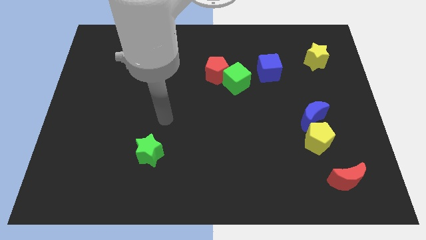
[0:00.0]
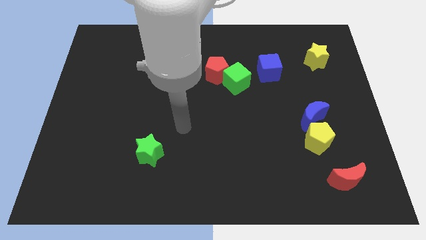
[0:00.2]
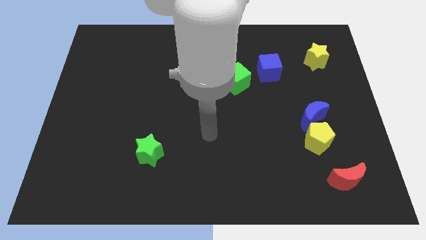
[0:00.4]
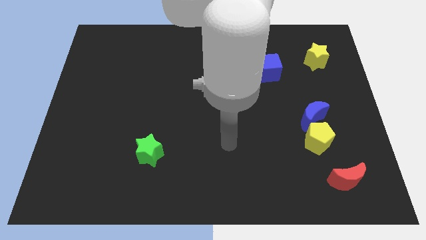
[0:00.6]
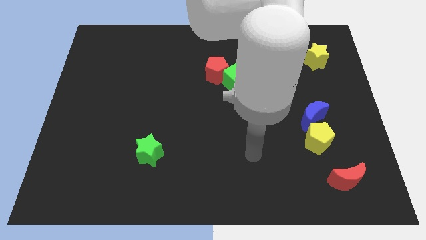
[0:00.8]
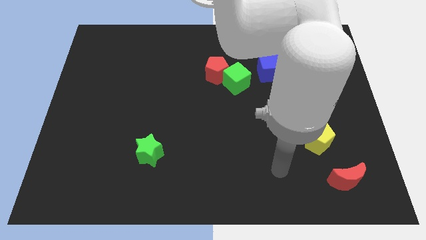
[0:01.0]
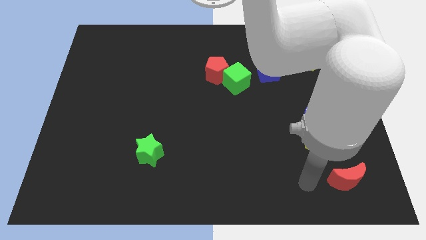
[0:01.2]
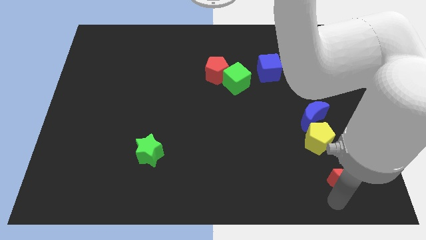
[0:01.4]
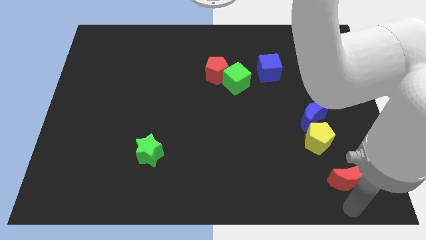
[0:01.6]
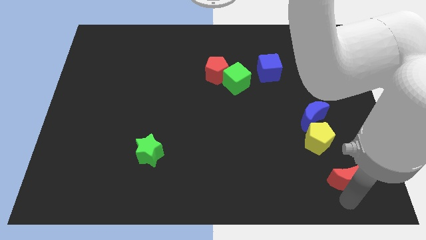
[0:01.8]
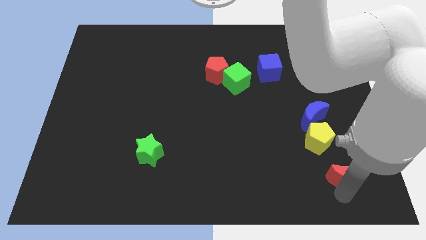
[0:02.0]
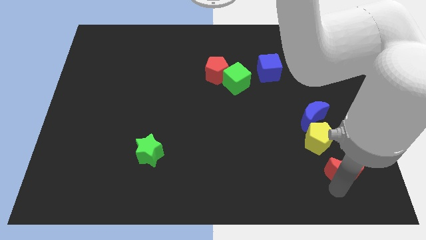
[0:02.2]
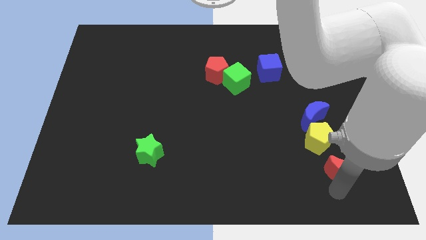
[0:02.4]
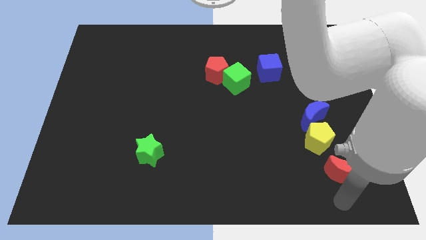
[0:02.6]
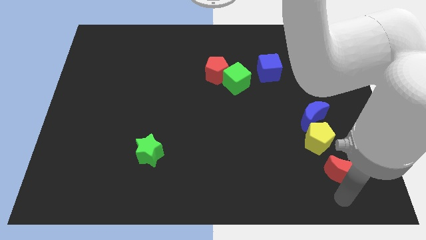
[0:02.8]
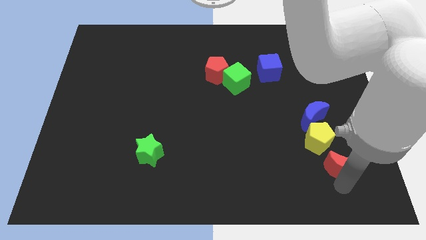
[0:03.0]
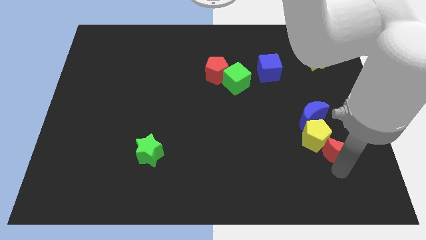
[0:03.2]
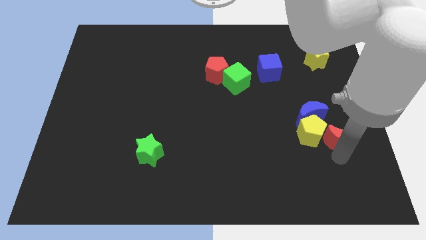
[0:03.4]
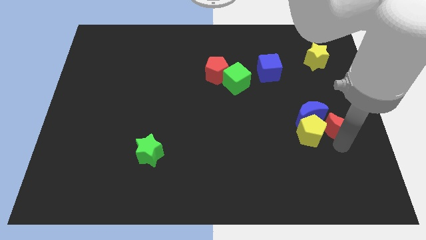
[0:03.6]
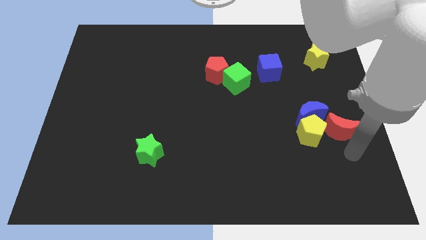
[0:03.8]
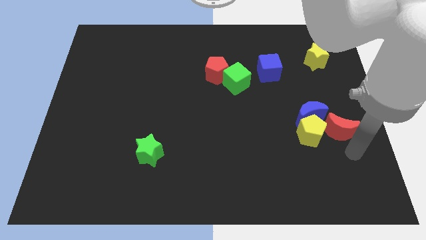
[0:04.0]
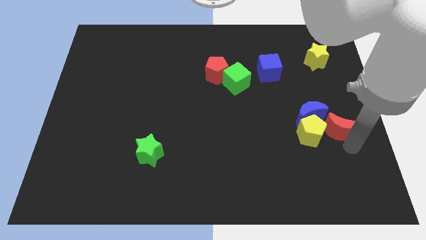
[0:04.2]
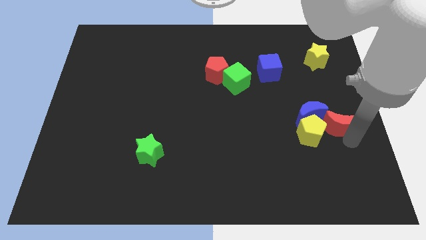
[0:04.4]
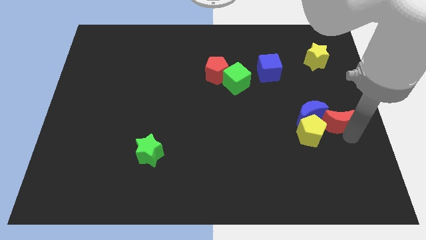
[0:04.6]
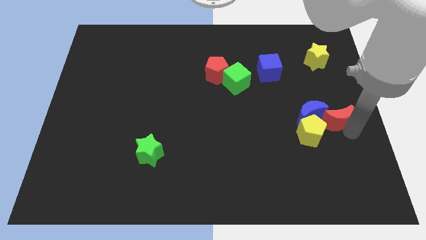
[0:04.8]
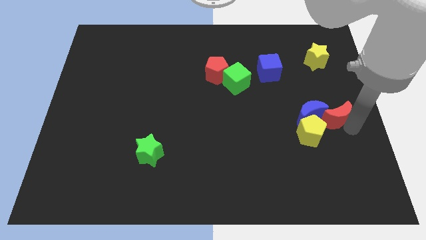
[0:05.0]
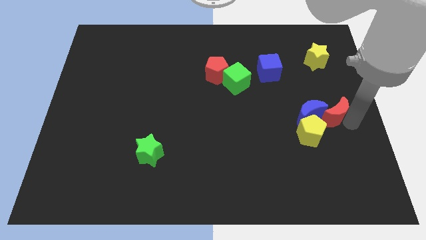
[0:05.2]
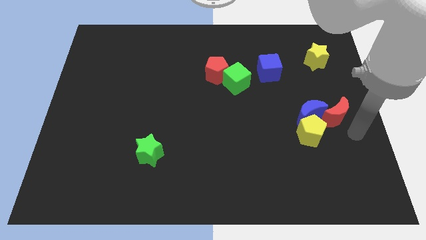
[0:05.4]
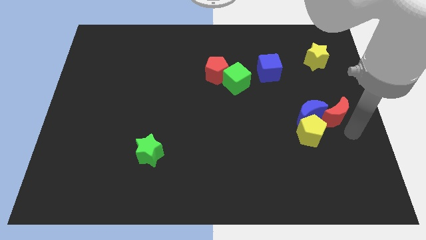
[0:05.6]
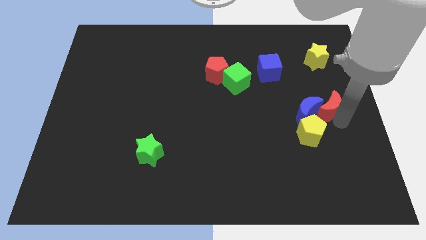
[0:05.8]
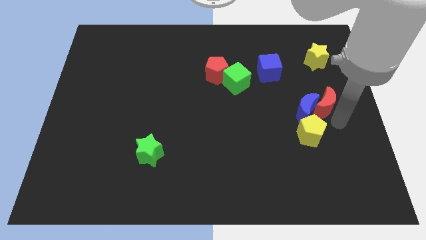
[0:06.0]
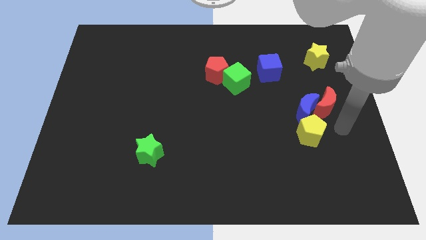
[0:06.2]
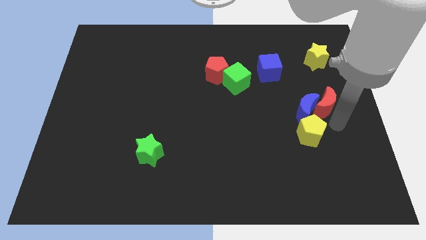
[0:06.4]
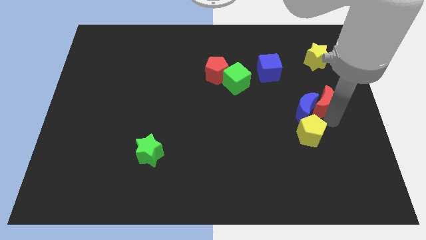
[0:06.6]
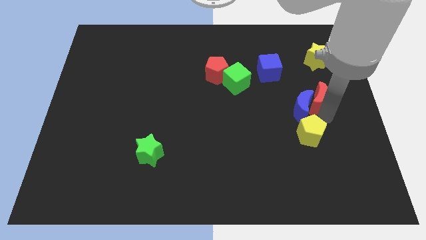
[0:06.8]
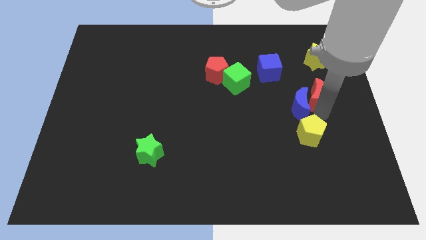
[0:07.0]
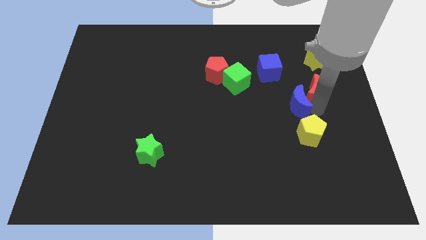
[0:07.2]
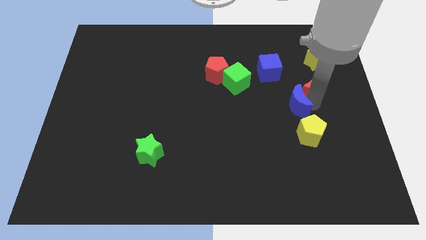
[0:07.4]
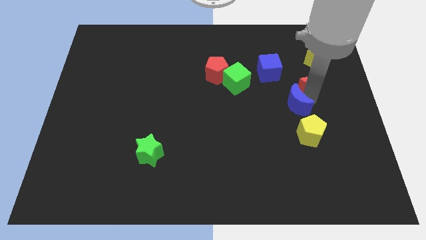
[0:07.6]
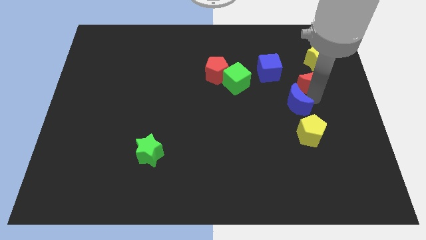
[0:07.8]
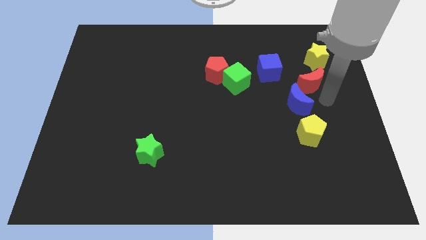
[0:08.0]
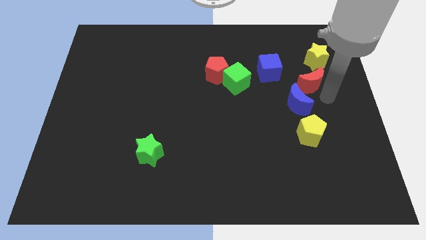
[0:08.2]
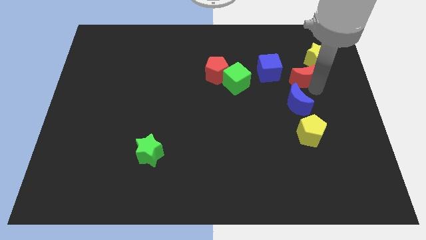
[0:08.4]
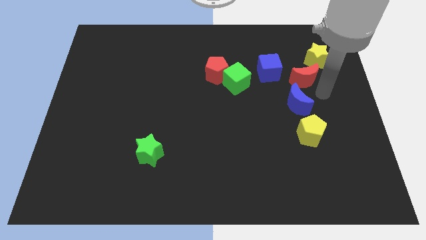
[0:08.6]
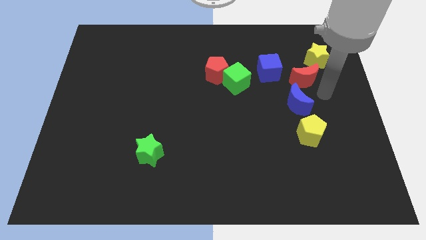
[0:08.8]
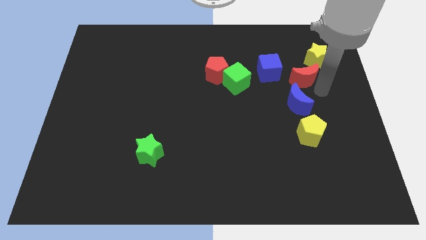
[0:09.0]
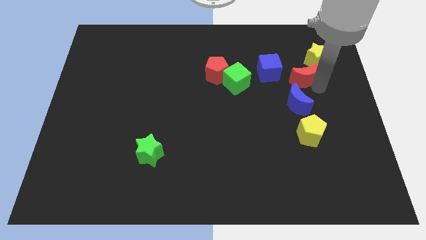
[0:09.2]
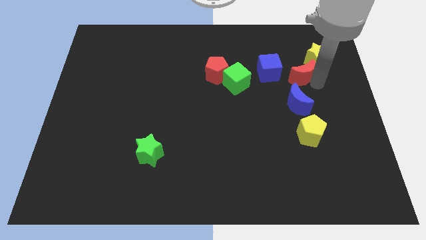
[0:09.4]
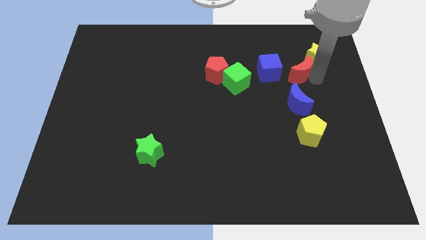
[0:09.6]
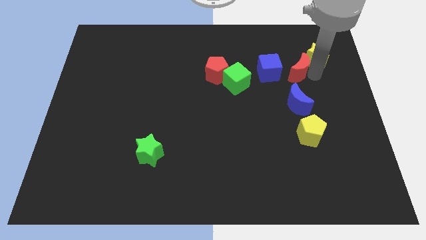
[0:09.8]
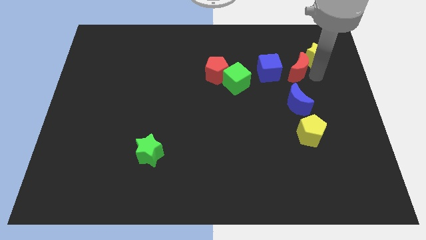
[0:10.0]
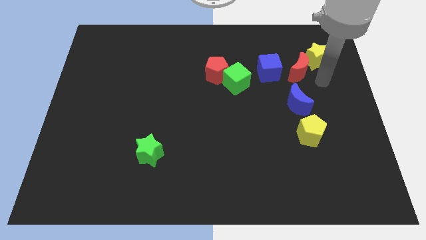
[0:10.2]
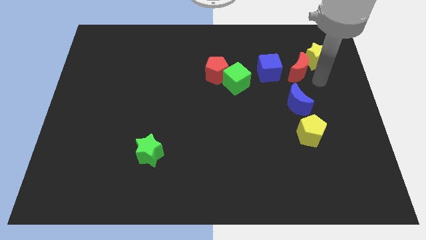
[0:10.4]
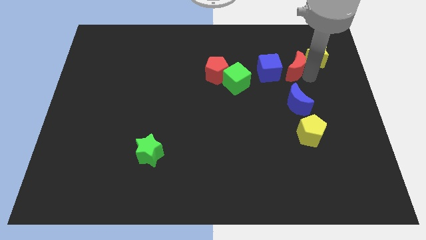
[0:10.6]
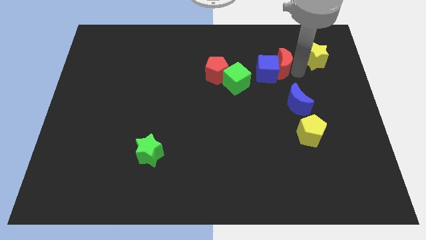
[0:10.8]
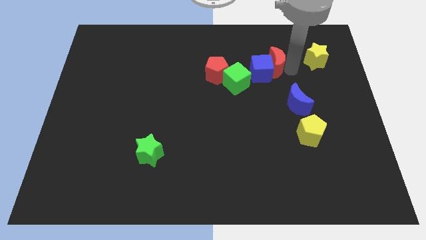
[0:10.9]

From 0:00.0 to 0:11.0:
push the red moon to the top right of the green cube

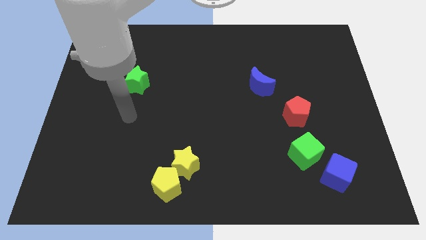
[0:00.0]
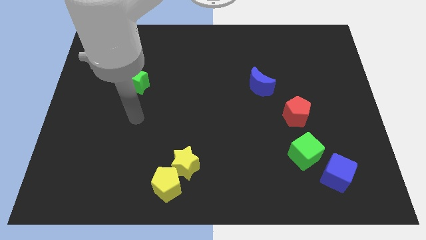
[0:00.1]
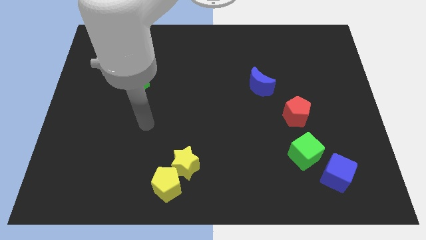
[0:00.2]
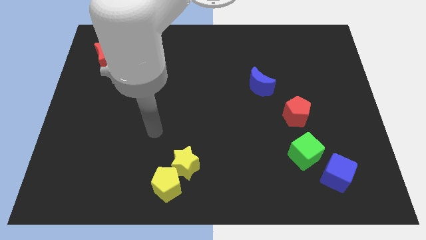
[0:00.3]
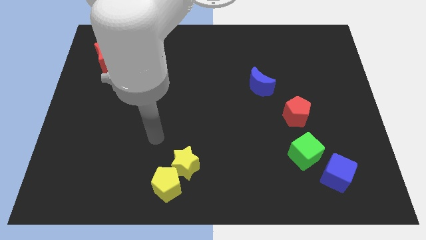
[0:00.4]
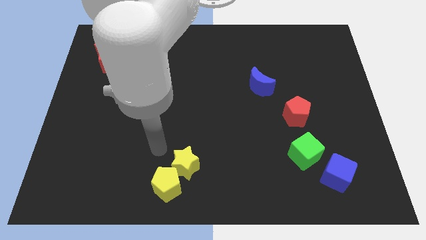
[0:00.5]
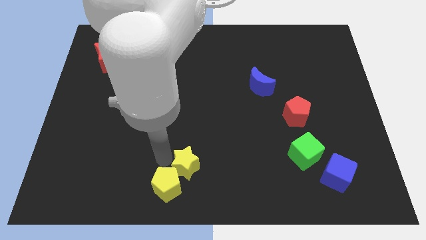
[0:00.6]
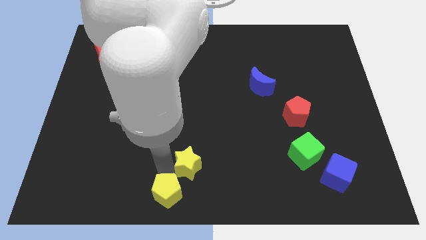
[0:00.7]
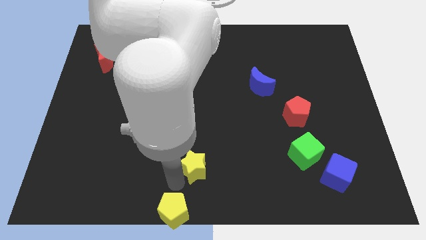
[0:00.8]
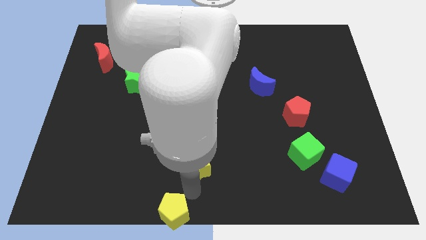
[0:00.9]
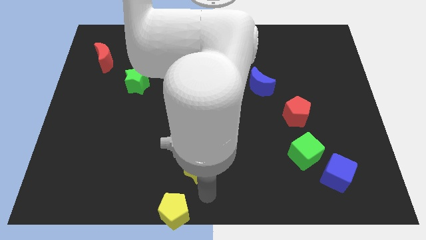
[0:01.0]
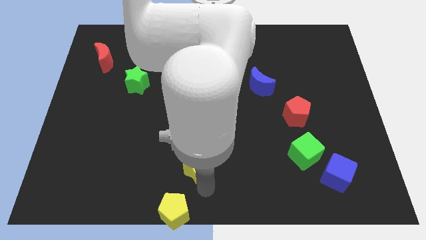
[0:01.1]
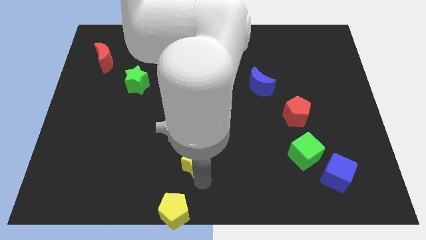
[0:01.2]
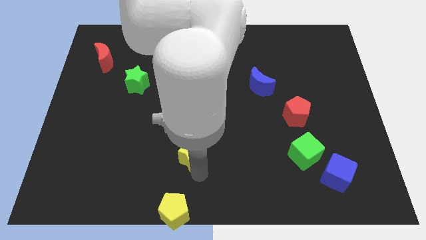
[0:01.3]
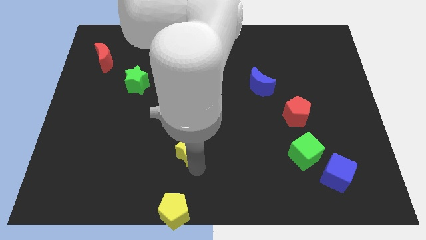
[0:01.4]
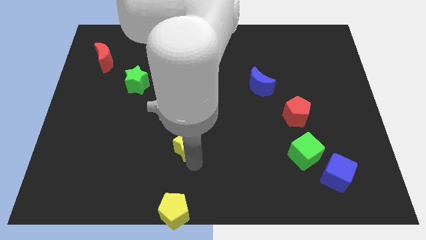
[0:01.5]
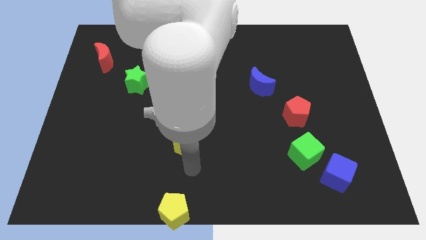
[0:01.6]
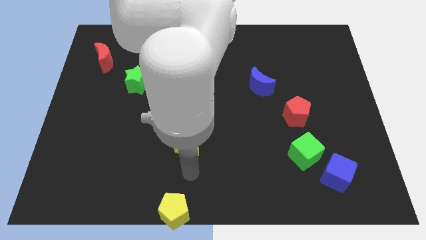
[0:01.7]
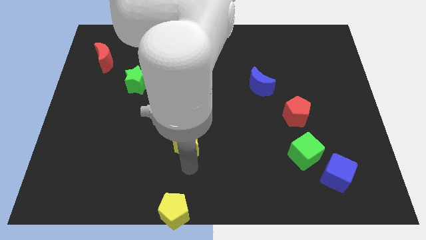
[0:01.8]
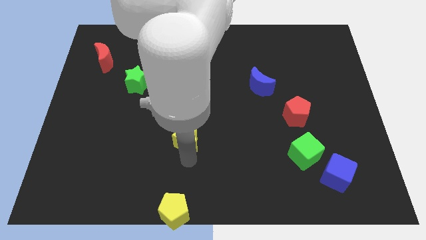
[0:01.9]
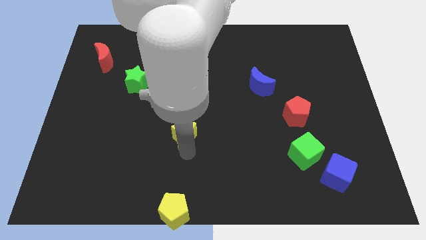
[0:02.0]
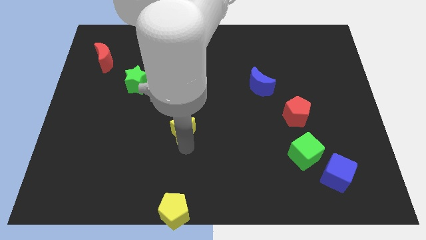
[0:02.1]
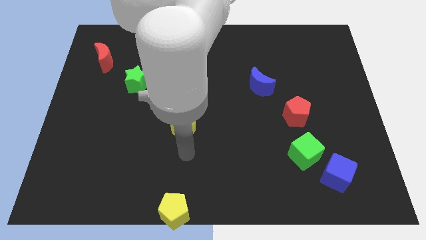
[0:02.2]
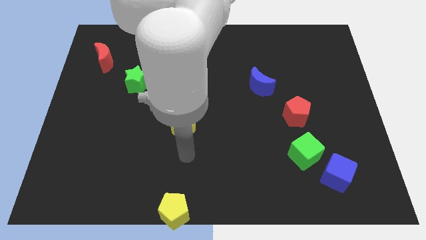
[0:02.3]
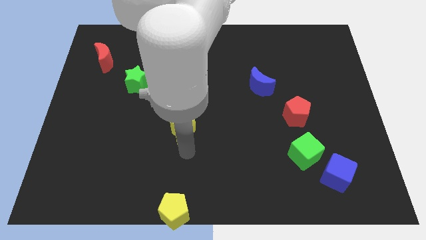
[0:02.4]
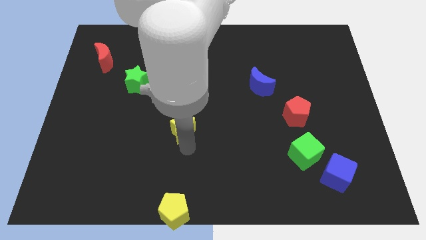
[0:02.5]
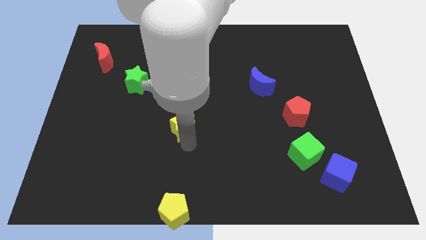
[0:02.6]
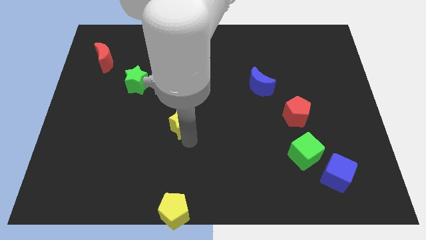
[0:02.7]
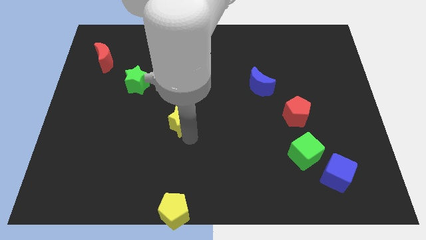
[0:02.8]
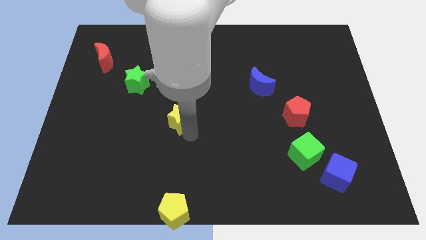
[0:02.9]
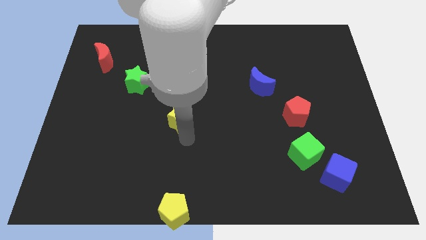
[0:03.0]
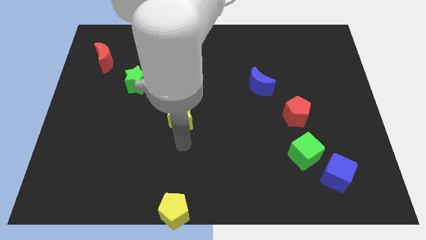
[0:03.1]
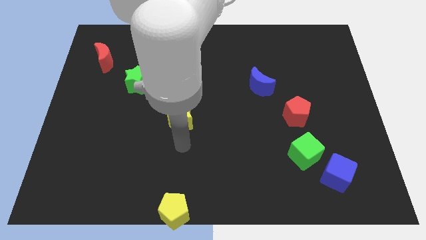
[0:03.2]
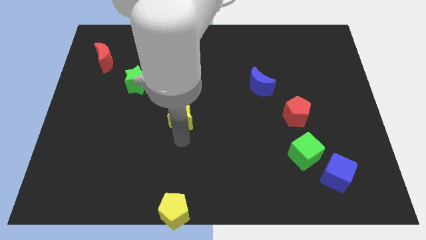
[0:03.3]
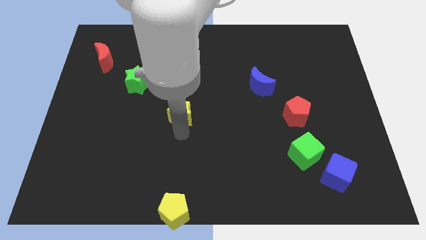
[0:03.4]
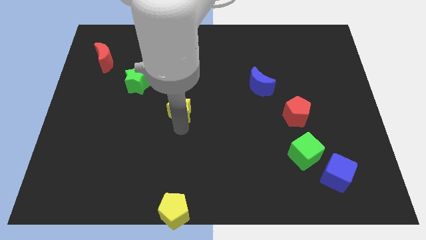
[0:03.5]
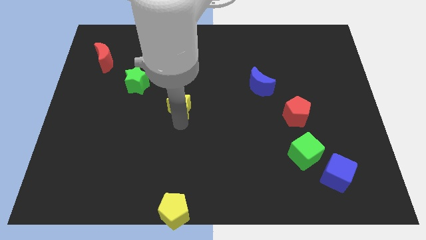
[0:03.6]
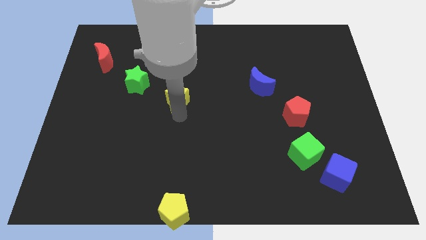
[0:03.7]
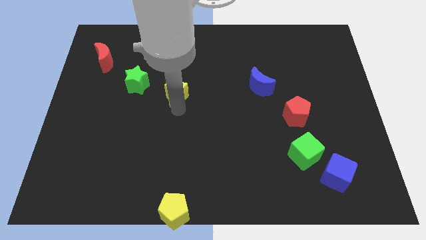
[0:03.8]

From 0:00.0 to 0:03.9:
move the yellow star to the right of the green star
